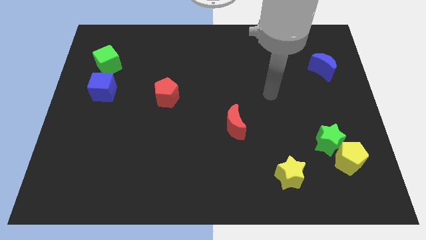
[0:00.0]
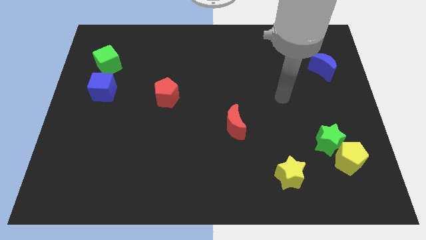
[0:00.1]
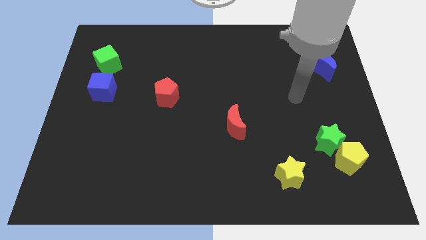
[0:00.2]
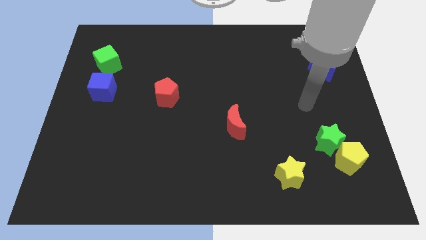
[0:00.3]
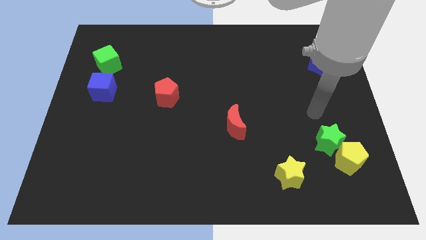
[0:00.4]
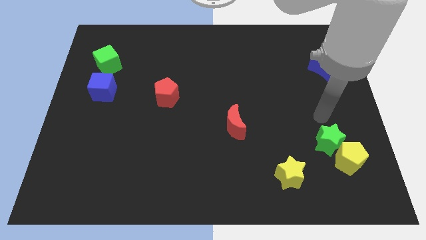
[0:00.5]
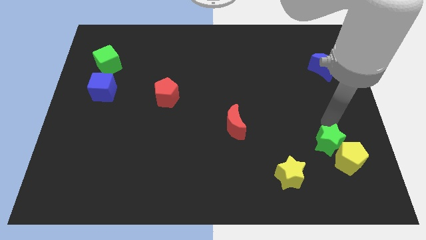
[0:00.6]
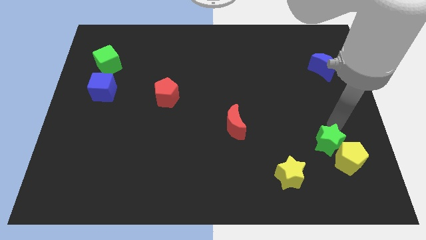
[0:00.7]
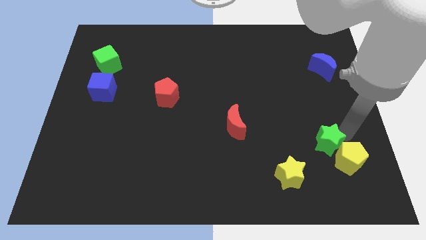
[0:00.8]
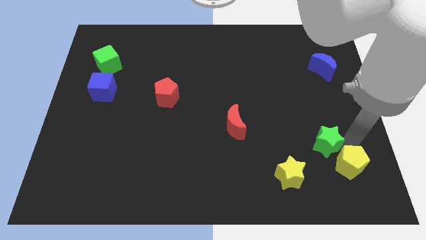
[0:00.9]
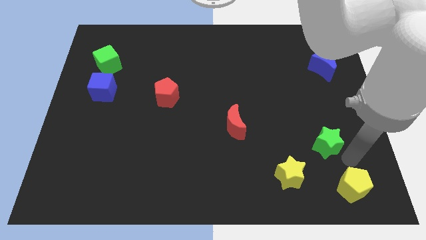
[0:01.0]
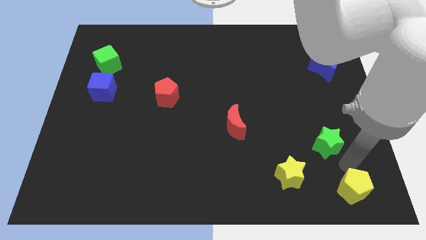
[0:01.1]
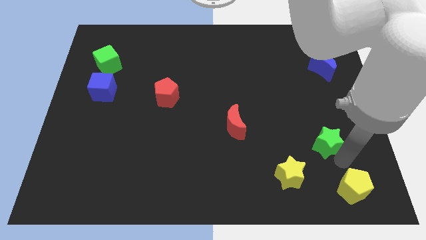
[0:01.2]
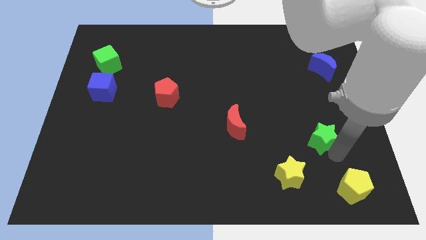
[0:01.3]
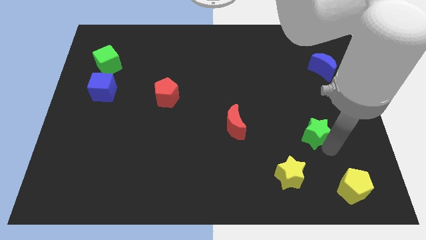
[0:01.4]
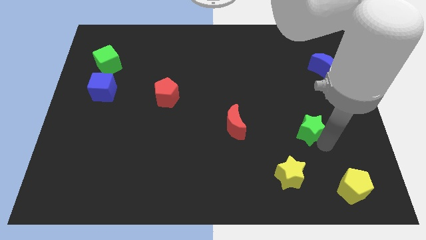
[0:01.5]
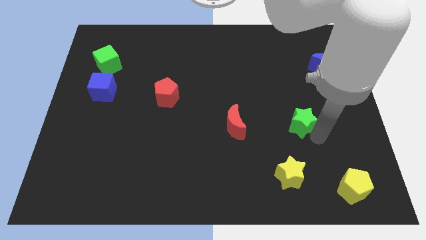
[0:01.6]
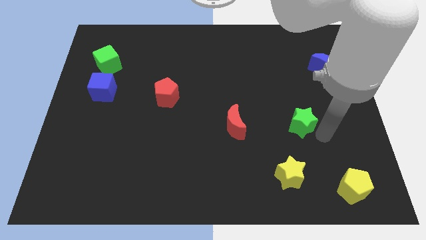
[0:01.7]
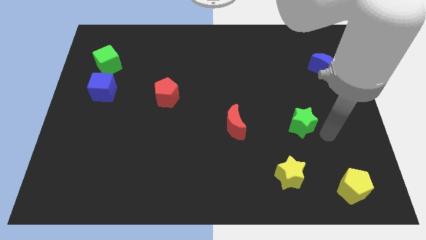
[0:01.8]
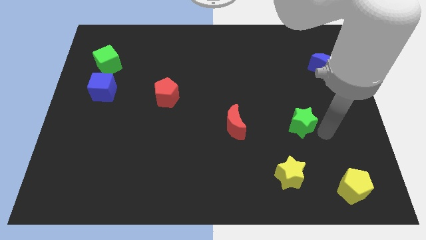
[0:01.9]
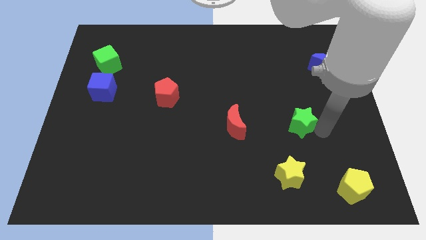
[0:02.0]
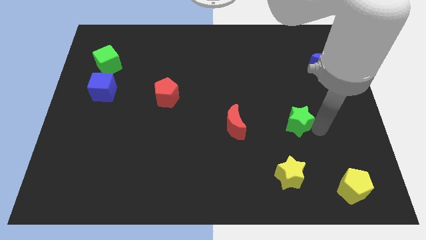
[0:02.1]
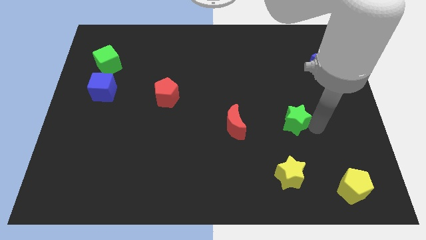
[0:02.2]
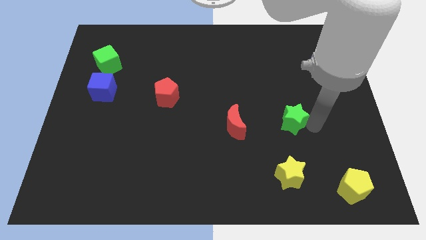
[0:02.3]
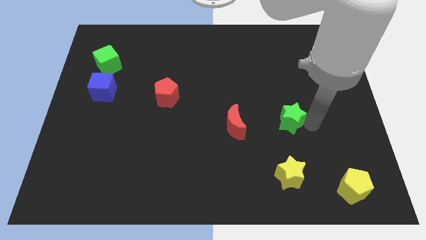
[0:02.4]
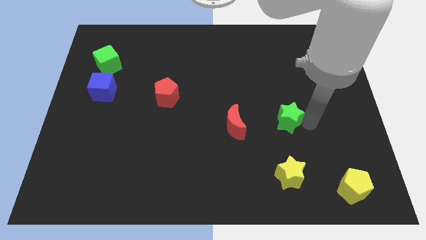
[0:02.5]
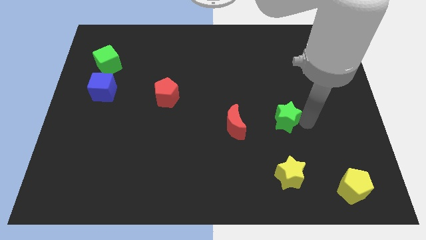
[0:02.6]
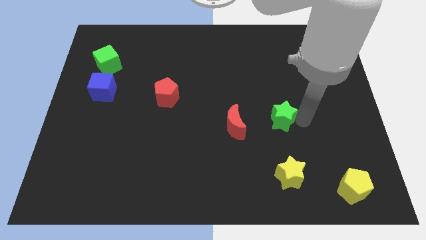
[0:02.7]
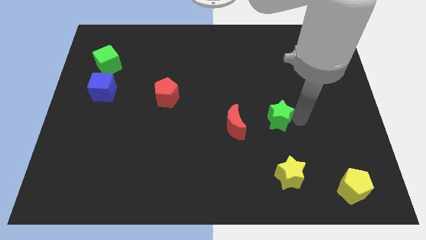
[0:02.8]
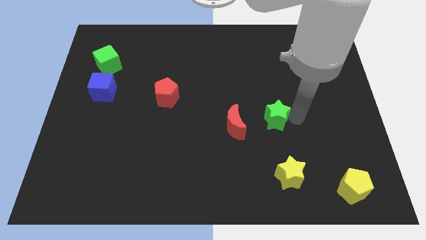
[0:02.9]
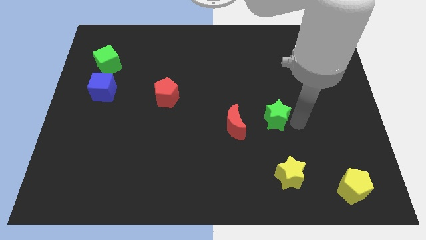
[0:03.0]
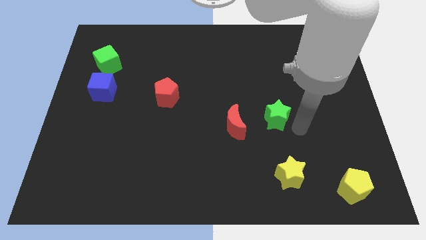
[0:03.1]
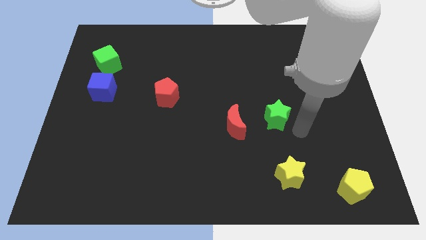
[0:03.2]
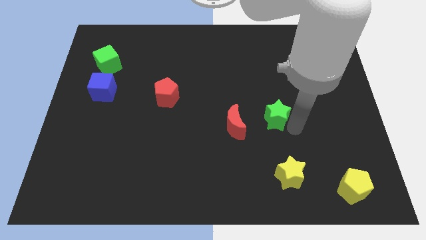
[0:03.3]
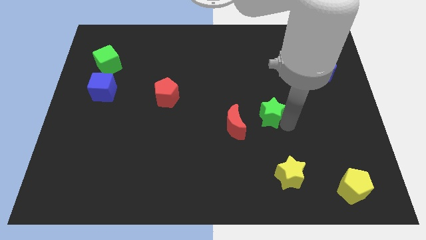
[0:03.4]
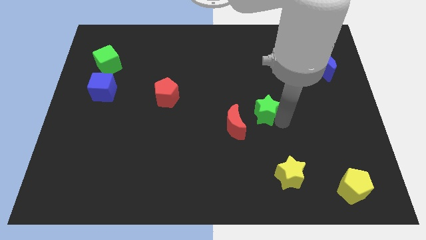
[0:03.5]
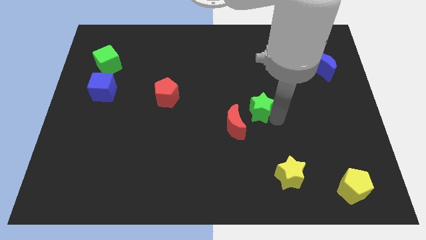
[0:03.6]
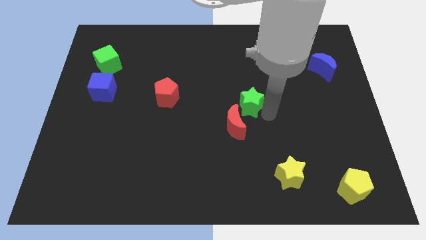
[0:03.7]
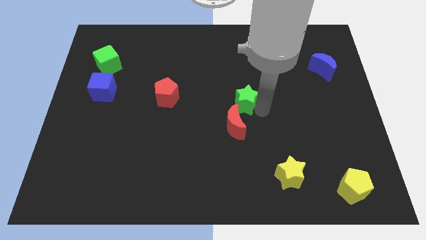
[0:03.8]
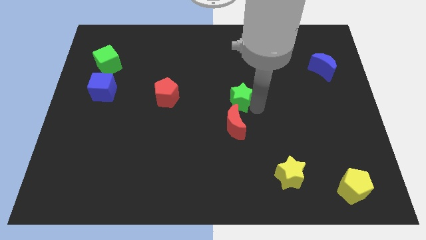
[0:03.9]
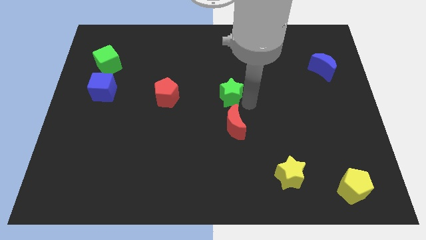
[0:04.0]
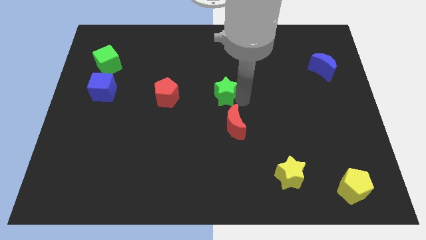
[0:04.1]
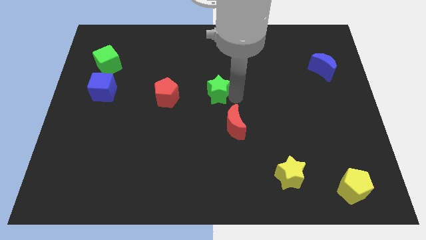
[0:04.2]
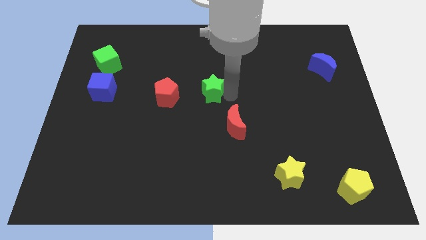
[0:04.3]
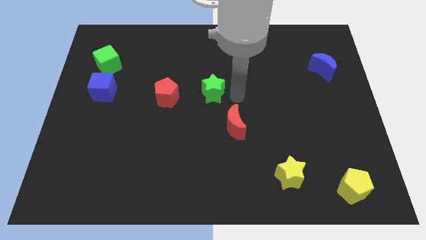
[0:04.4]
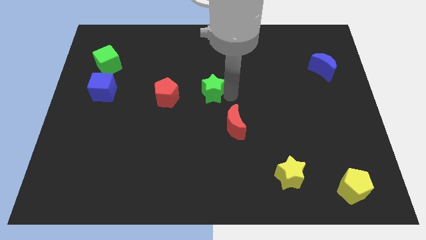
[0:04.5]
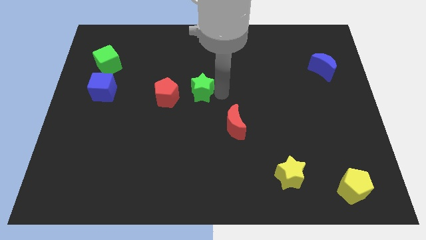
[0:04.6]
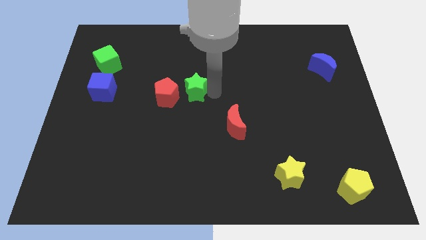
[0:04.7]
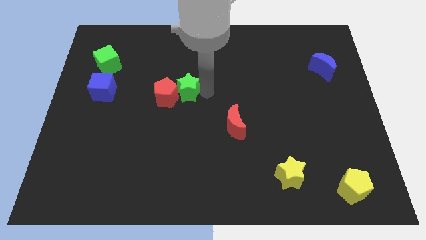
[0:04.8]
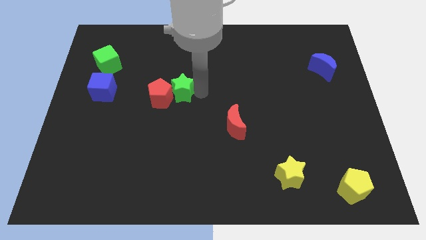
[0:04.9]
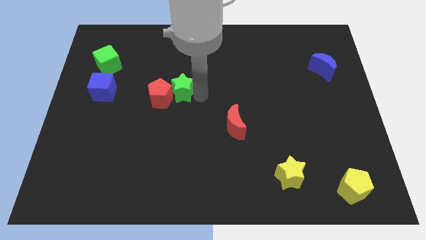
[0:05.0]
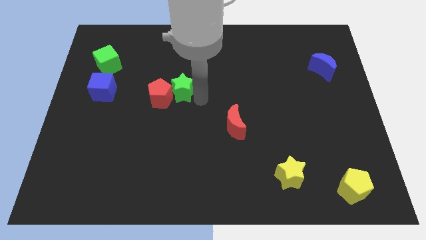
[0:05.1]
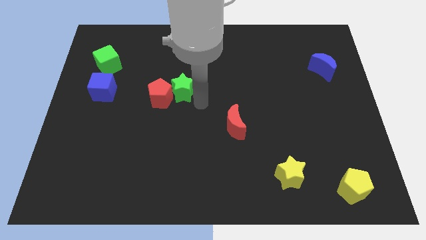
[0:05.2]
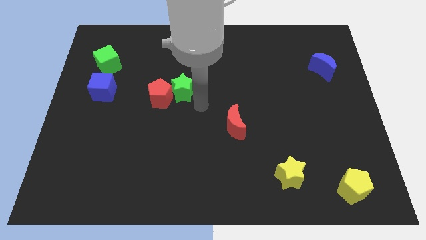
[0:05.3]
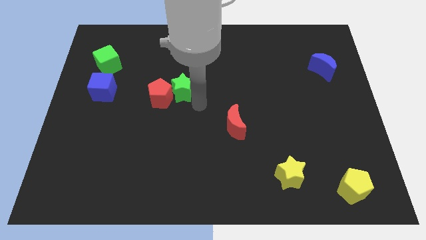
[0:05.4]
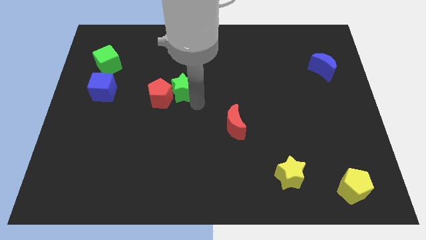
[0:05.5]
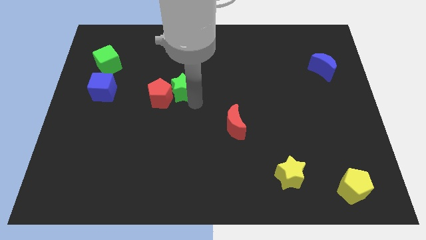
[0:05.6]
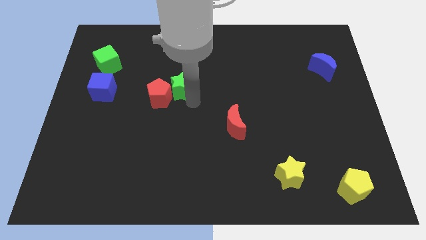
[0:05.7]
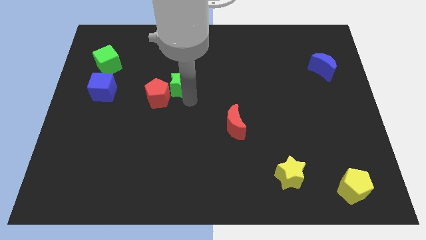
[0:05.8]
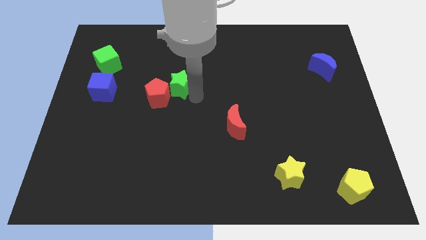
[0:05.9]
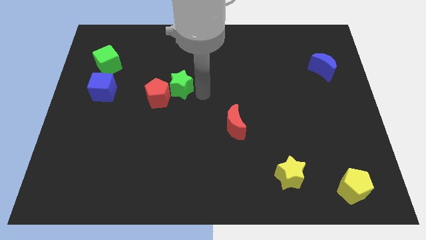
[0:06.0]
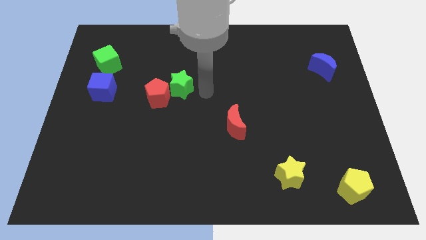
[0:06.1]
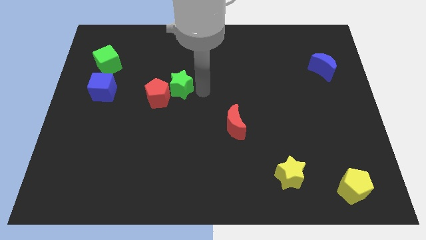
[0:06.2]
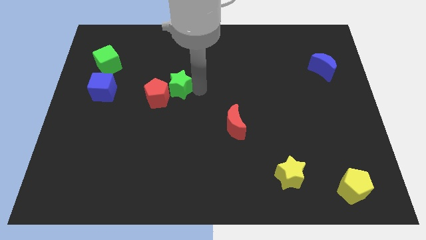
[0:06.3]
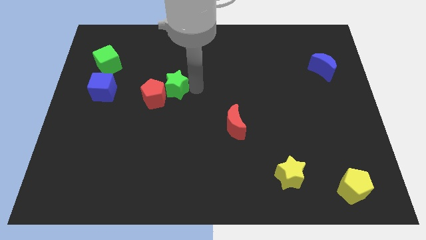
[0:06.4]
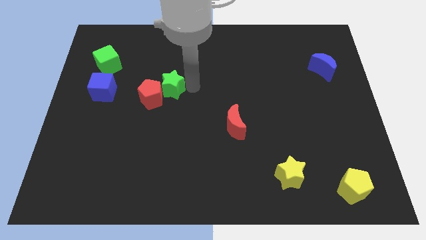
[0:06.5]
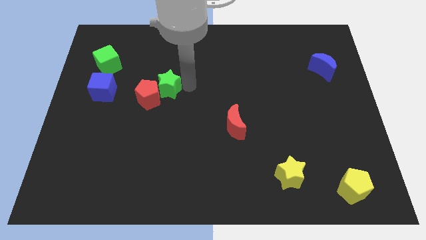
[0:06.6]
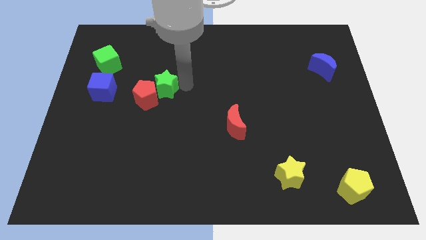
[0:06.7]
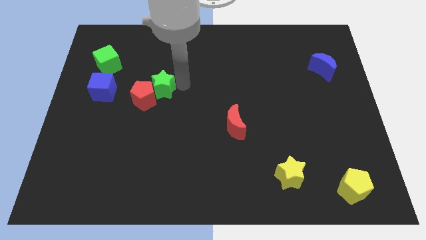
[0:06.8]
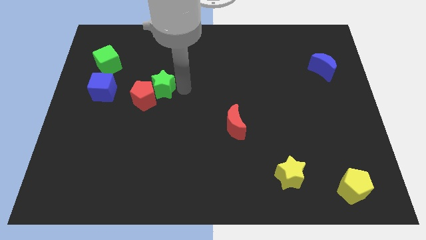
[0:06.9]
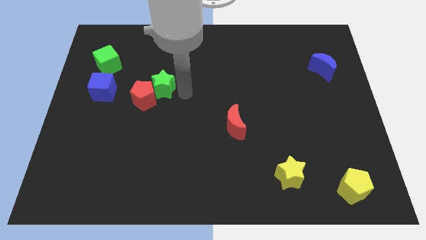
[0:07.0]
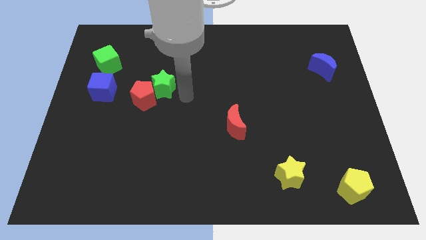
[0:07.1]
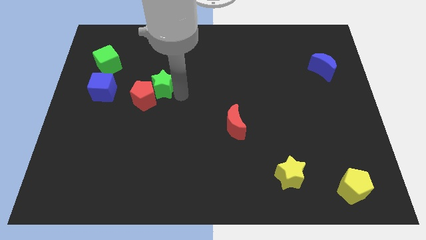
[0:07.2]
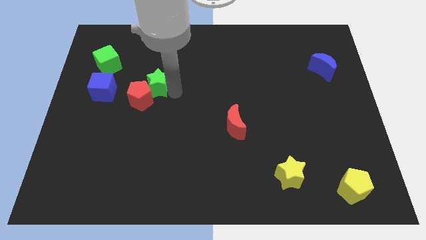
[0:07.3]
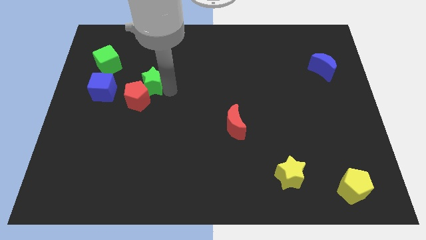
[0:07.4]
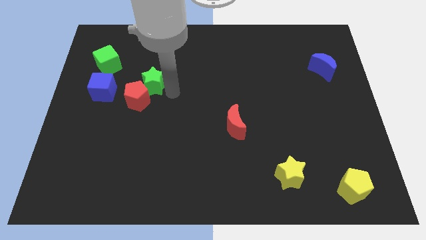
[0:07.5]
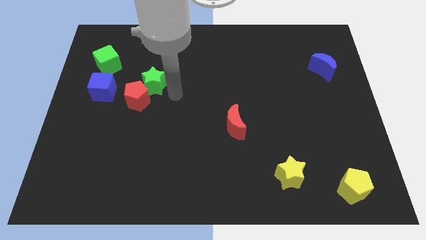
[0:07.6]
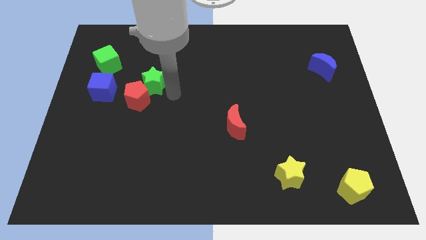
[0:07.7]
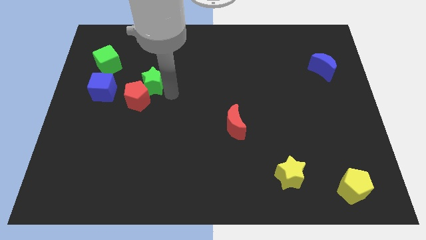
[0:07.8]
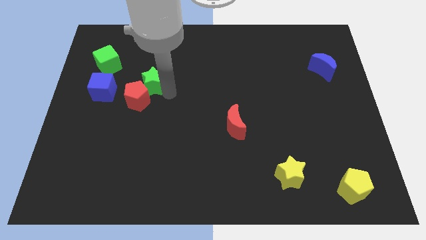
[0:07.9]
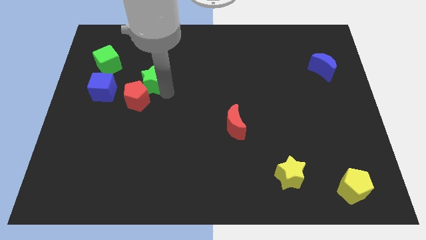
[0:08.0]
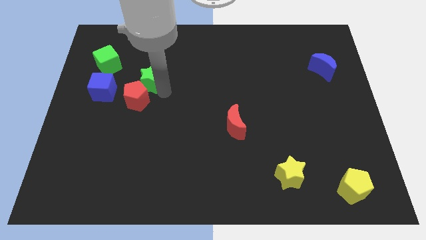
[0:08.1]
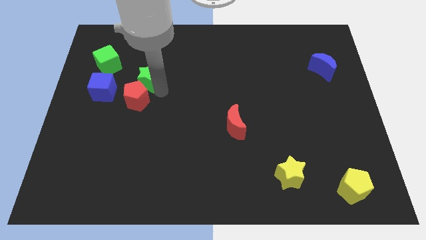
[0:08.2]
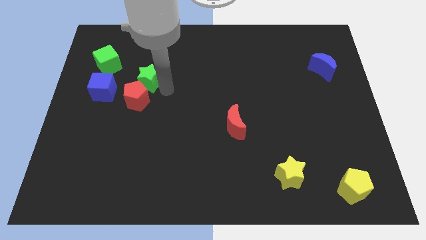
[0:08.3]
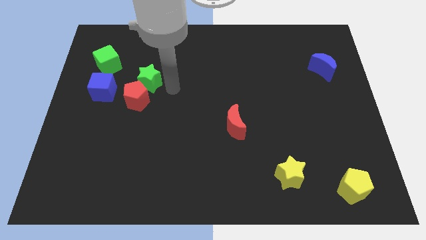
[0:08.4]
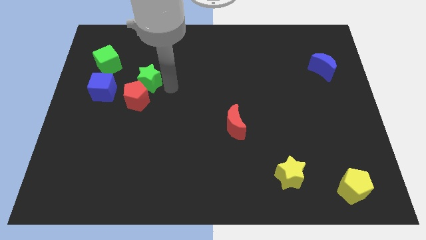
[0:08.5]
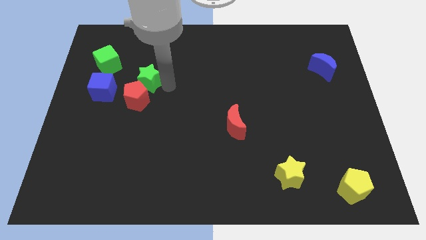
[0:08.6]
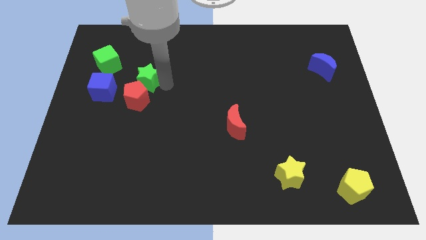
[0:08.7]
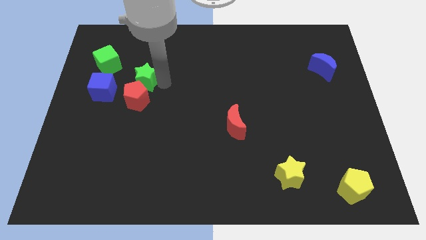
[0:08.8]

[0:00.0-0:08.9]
slide the green star to the top right of the blue cube
